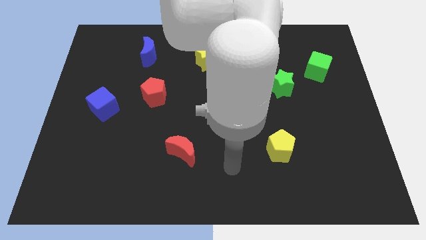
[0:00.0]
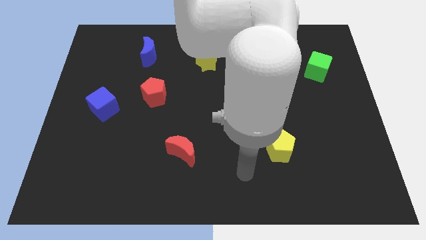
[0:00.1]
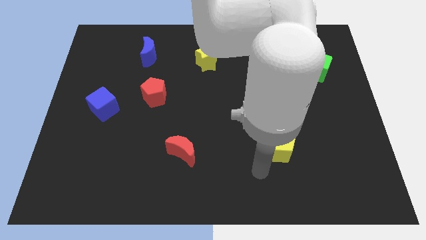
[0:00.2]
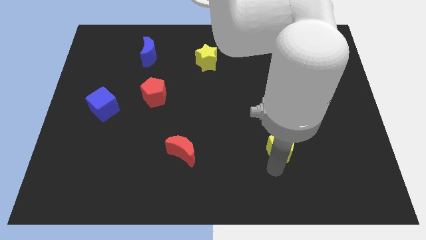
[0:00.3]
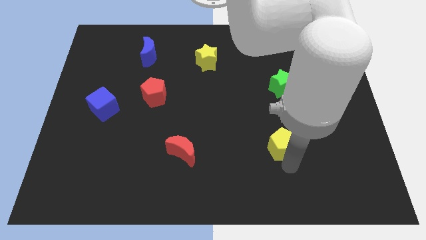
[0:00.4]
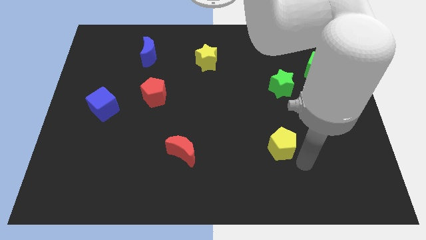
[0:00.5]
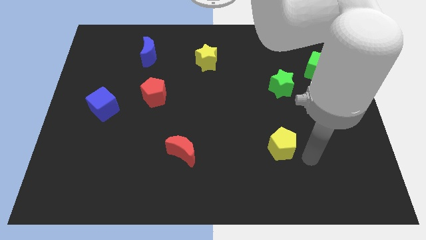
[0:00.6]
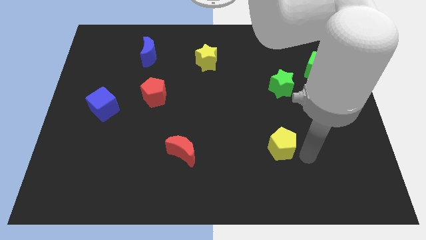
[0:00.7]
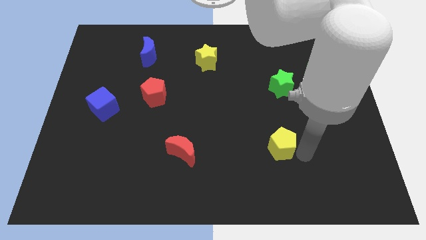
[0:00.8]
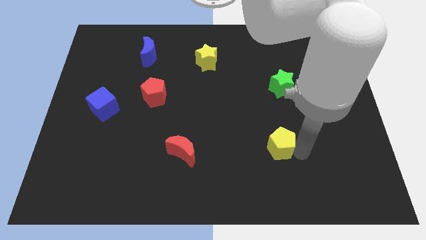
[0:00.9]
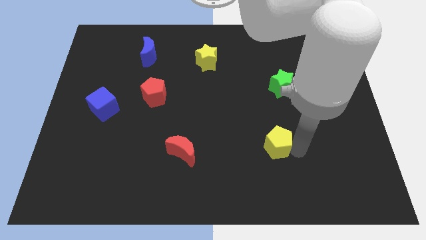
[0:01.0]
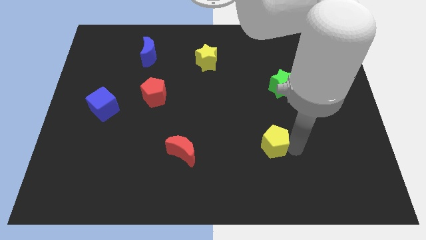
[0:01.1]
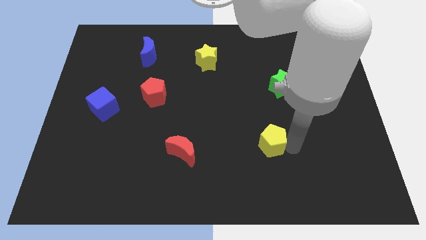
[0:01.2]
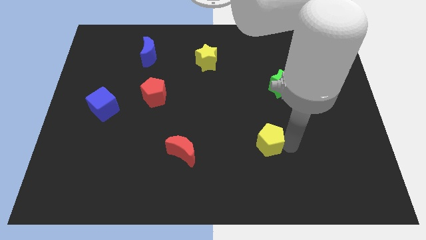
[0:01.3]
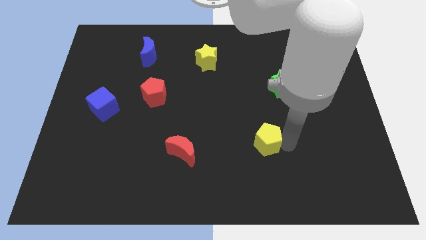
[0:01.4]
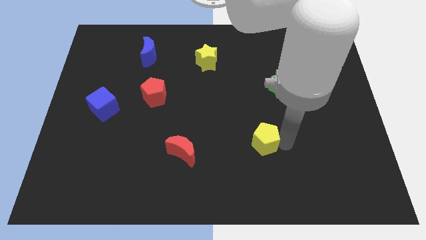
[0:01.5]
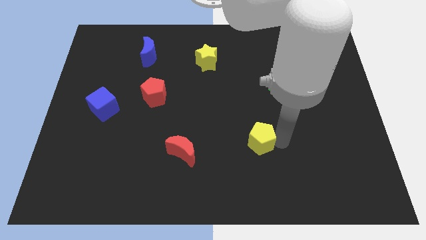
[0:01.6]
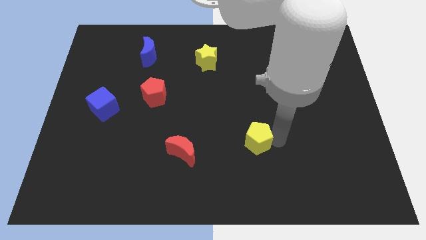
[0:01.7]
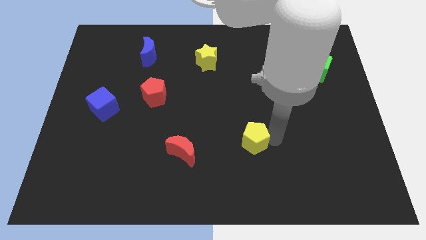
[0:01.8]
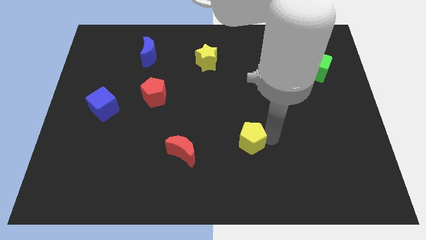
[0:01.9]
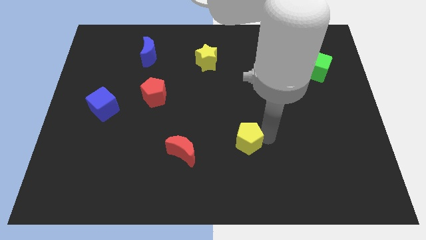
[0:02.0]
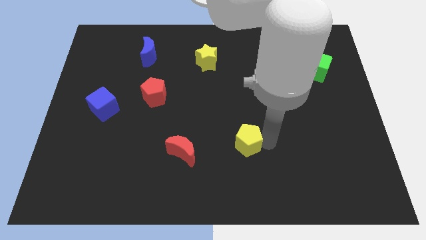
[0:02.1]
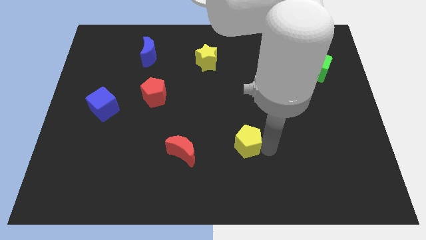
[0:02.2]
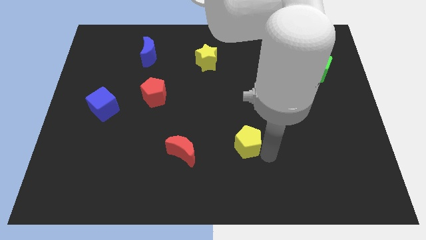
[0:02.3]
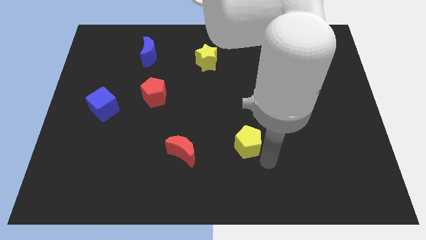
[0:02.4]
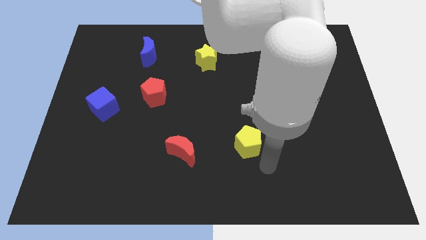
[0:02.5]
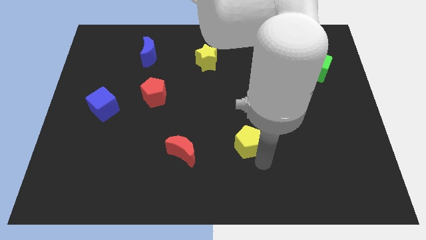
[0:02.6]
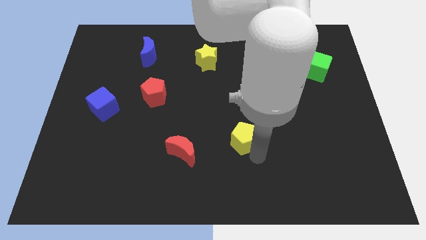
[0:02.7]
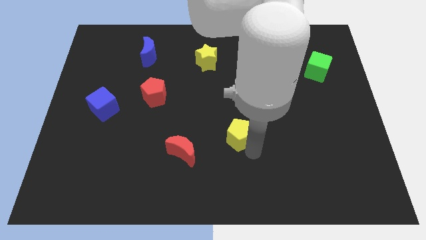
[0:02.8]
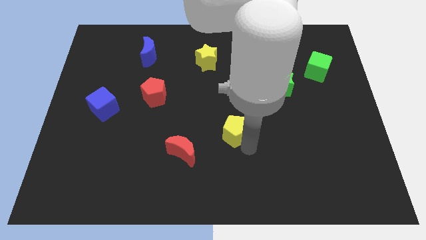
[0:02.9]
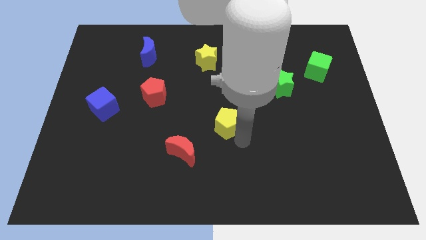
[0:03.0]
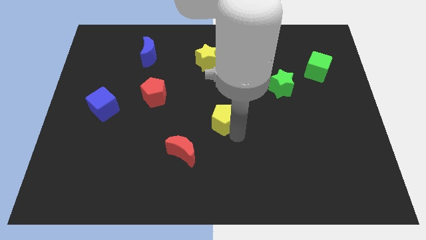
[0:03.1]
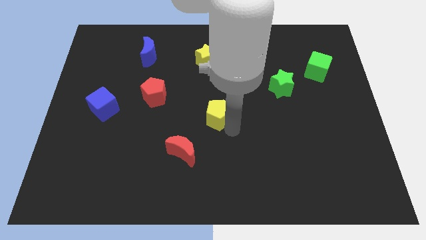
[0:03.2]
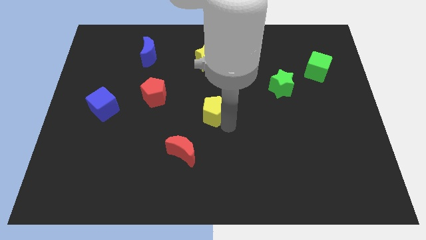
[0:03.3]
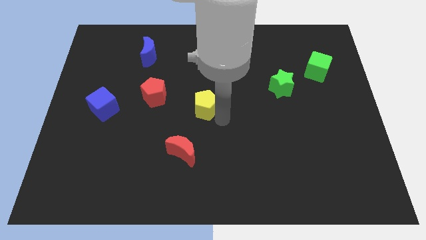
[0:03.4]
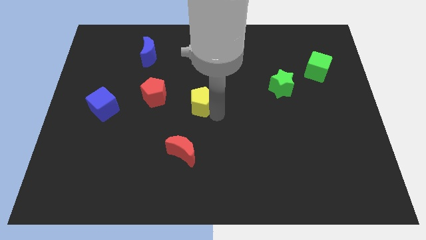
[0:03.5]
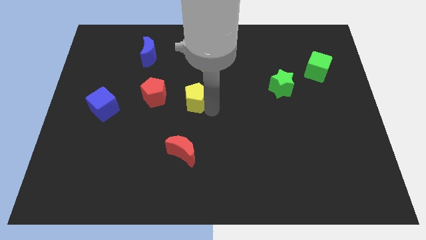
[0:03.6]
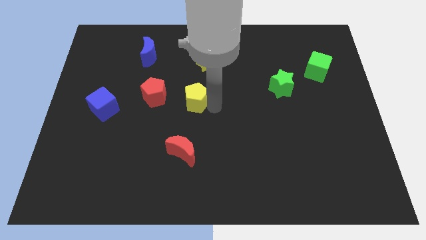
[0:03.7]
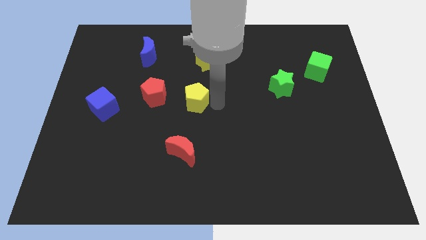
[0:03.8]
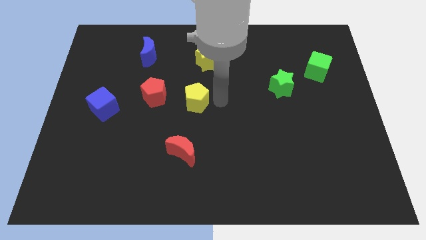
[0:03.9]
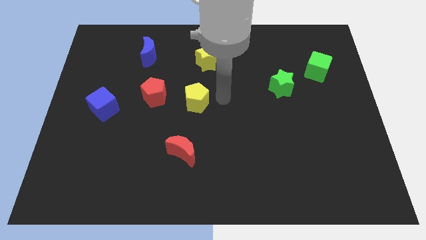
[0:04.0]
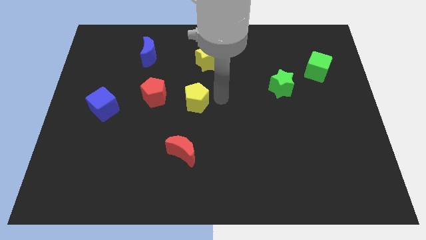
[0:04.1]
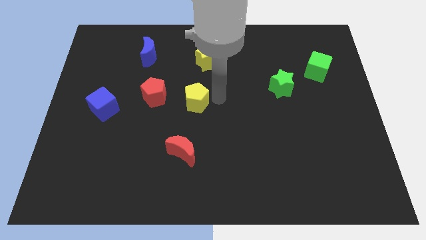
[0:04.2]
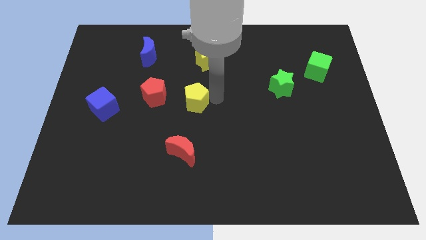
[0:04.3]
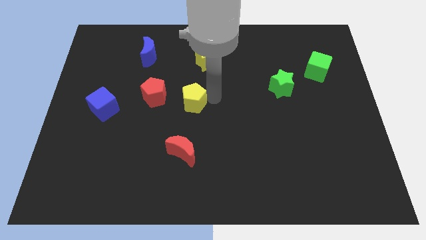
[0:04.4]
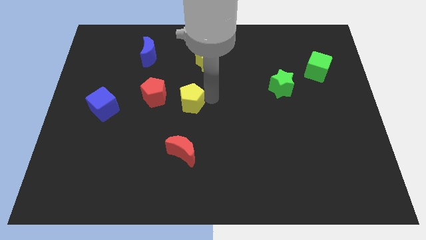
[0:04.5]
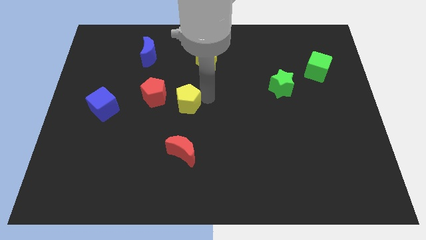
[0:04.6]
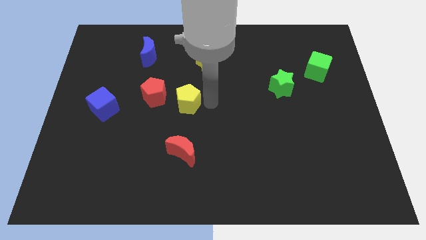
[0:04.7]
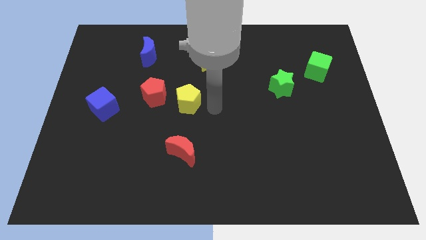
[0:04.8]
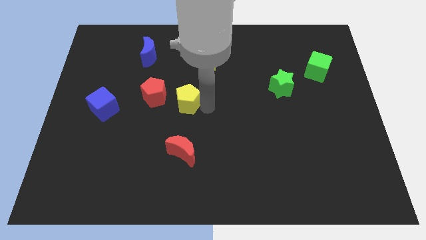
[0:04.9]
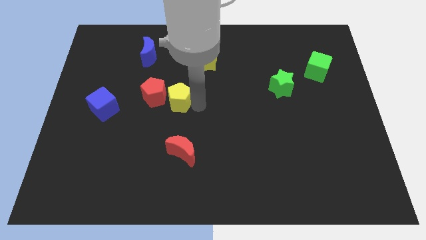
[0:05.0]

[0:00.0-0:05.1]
move the yellow pentagon towards the red pentagon

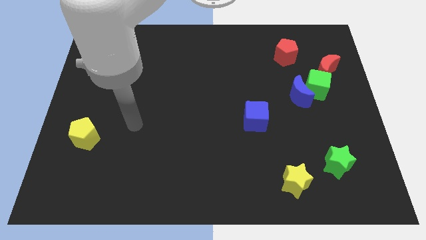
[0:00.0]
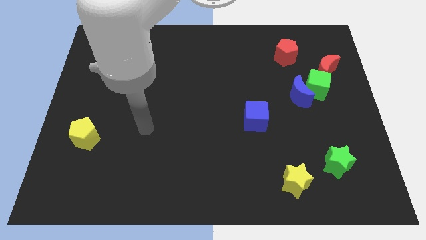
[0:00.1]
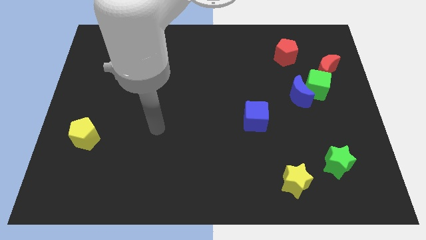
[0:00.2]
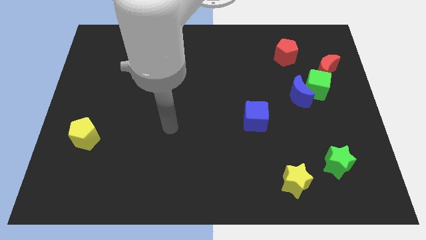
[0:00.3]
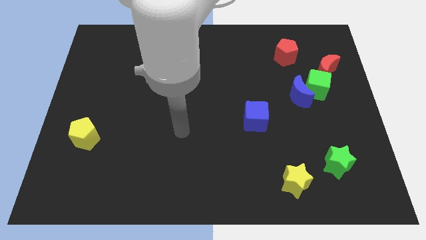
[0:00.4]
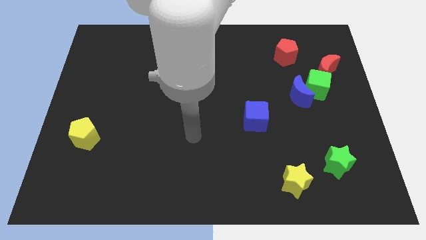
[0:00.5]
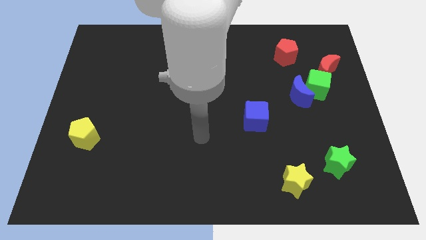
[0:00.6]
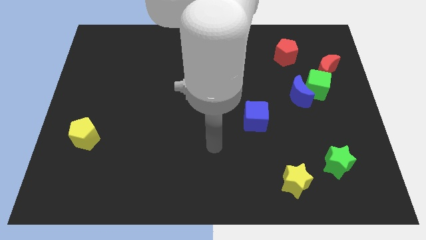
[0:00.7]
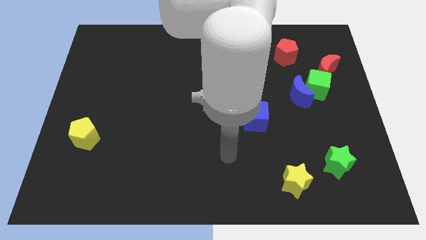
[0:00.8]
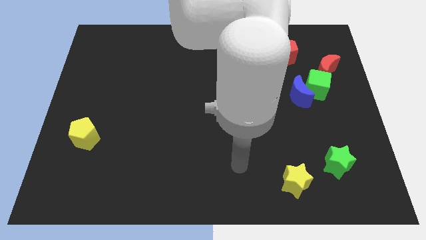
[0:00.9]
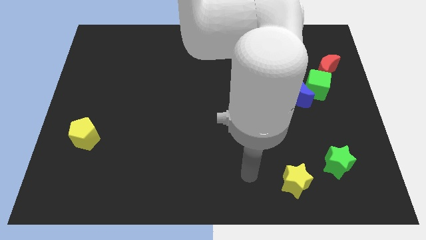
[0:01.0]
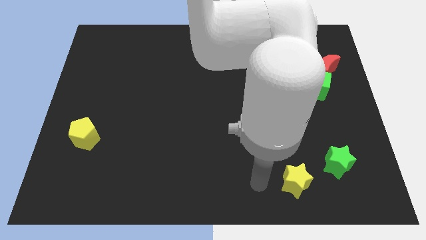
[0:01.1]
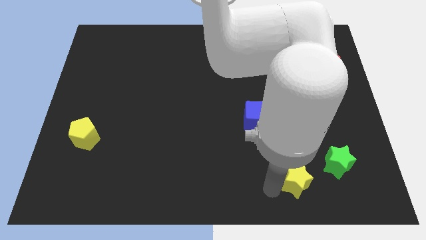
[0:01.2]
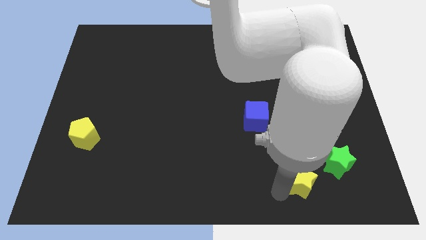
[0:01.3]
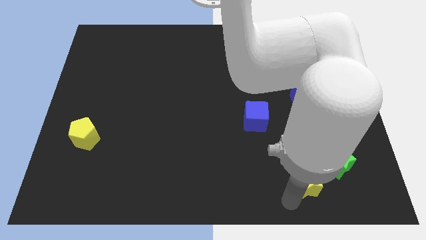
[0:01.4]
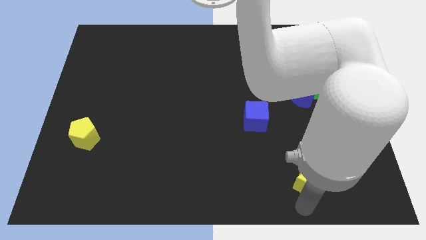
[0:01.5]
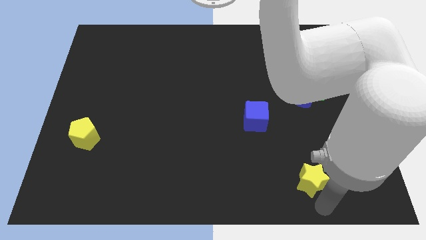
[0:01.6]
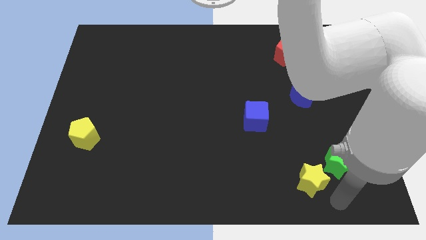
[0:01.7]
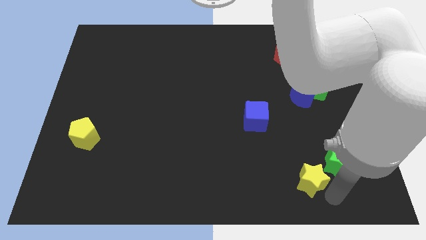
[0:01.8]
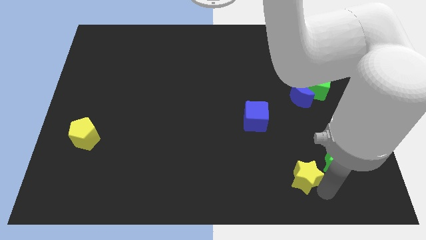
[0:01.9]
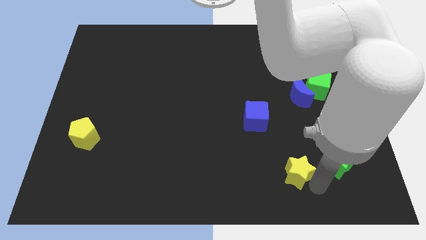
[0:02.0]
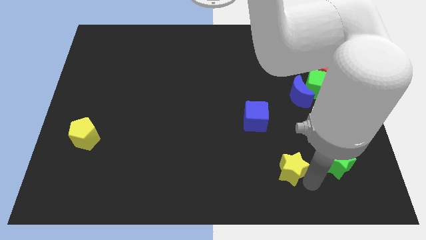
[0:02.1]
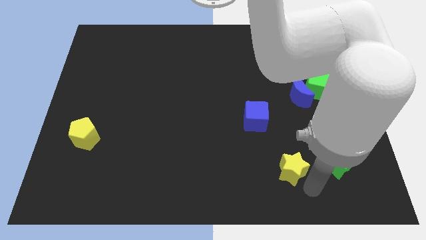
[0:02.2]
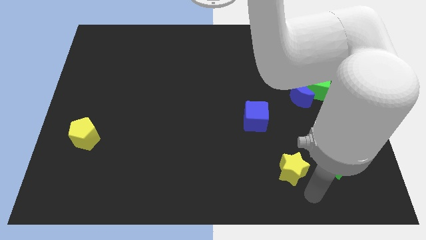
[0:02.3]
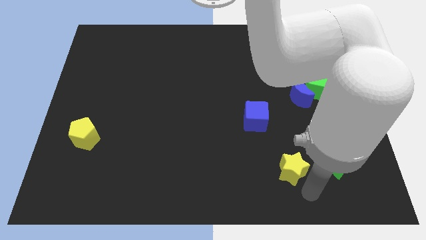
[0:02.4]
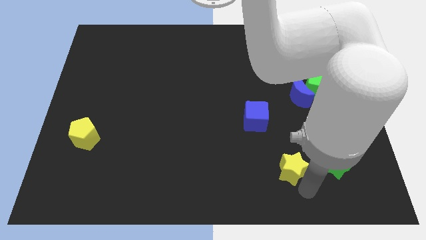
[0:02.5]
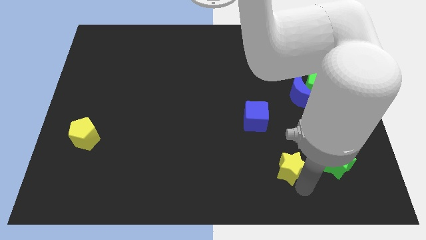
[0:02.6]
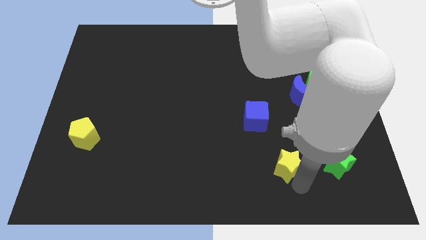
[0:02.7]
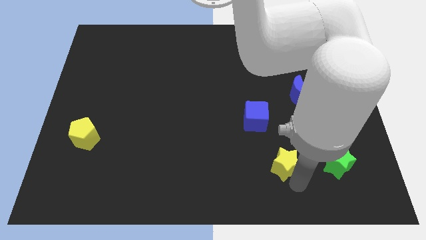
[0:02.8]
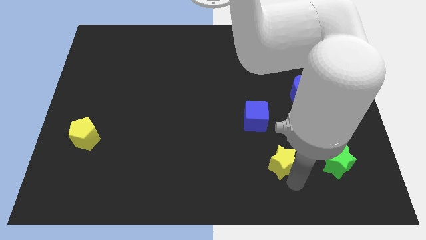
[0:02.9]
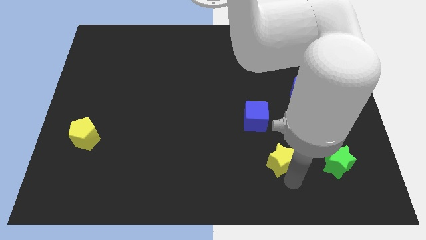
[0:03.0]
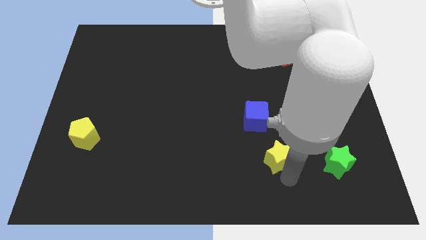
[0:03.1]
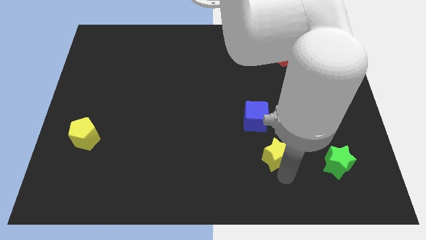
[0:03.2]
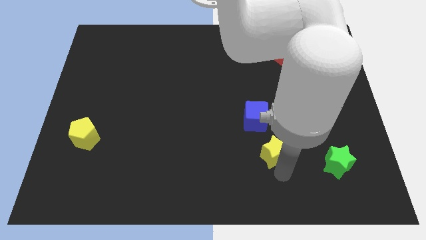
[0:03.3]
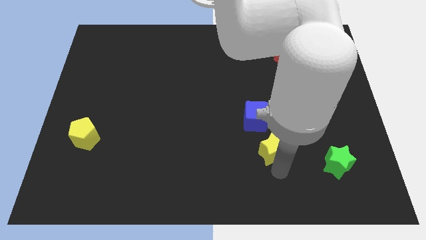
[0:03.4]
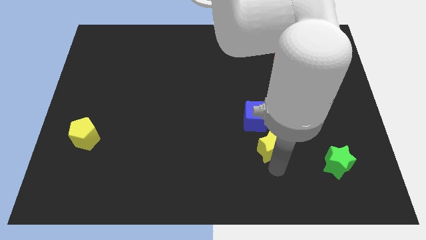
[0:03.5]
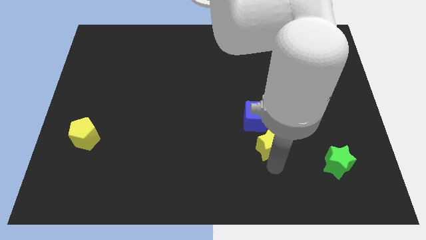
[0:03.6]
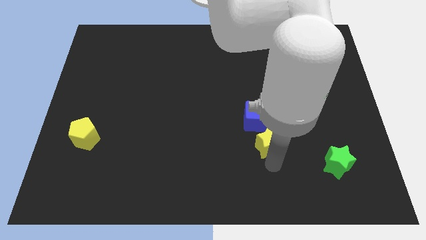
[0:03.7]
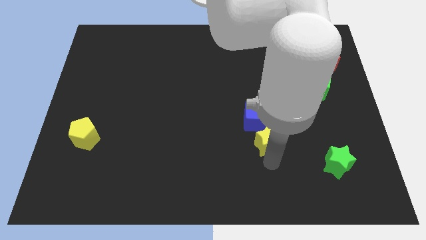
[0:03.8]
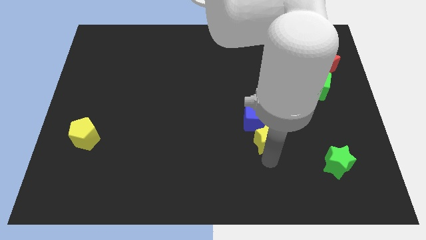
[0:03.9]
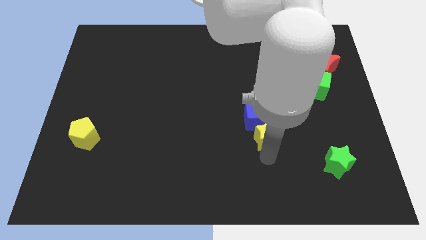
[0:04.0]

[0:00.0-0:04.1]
slide the yellow star close to the blue cube
